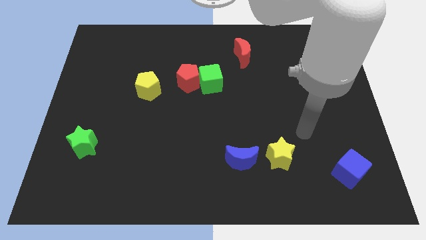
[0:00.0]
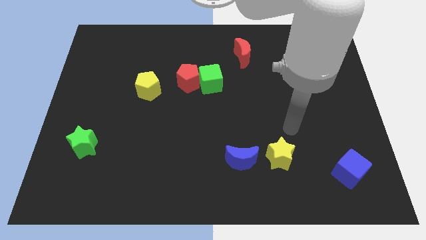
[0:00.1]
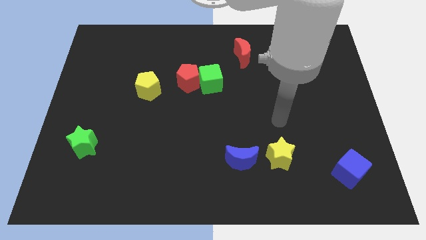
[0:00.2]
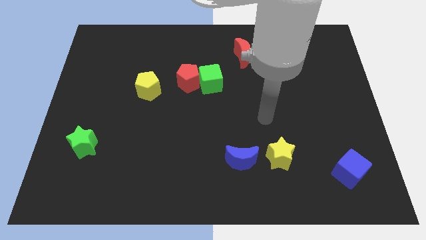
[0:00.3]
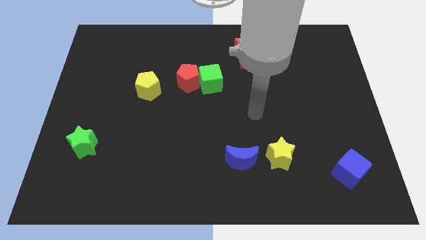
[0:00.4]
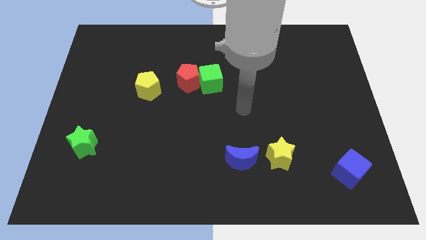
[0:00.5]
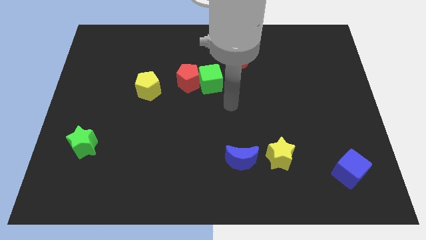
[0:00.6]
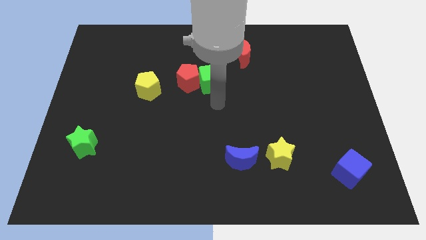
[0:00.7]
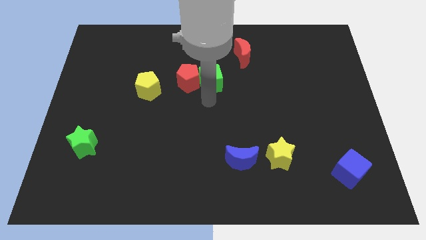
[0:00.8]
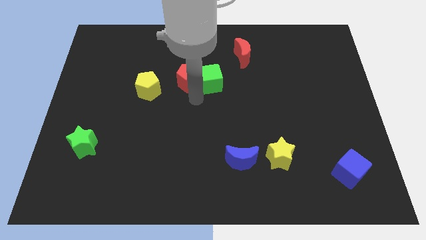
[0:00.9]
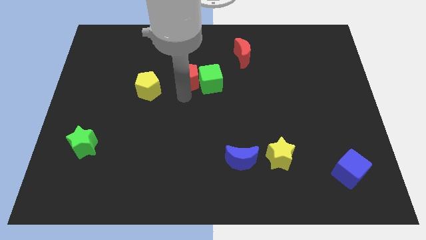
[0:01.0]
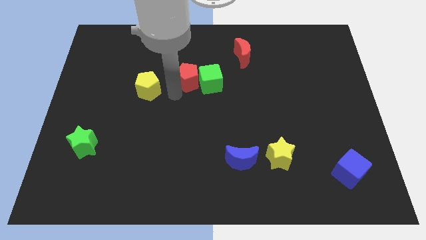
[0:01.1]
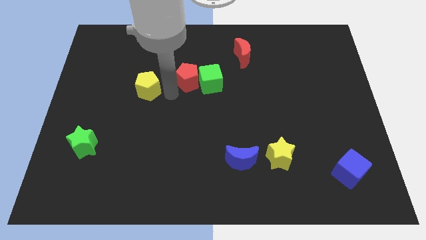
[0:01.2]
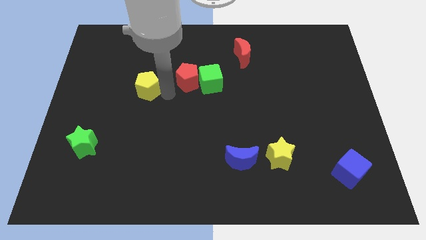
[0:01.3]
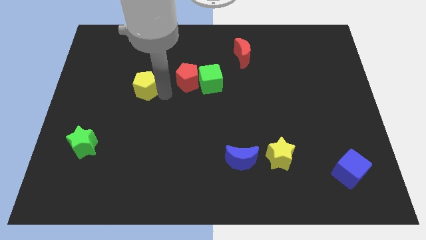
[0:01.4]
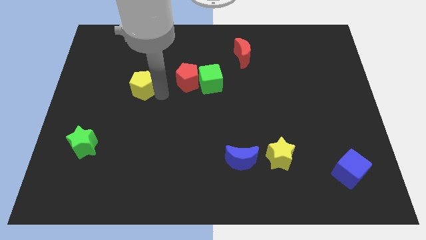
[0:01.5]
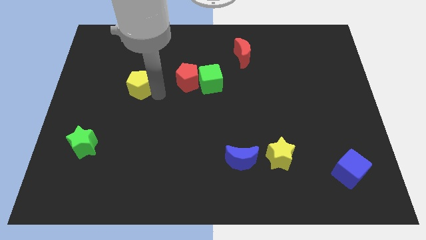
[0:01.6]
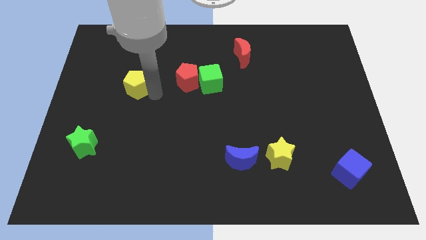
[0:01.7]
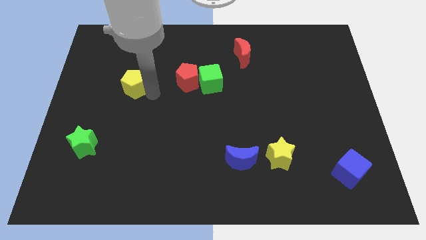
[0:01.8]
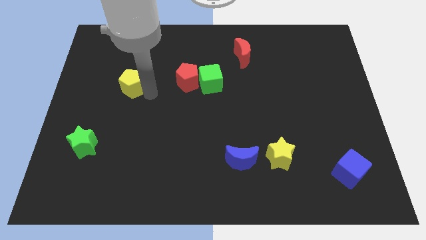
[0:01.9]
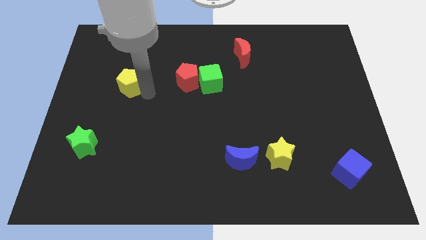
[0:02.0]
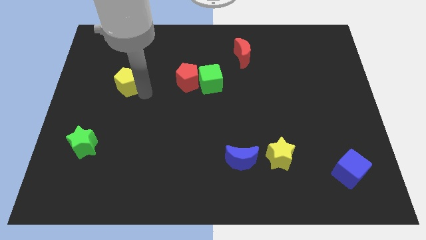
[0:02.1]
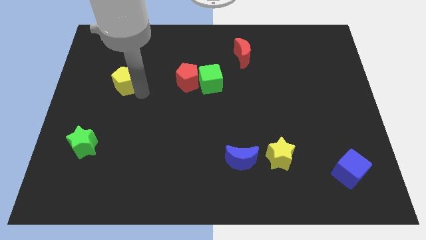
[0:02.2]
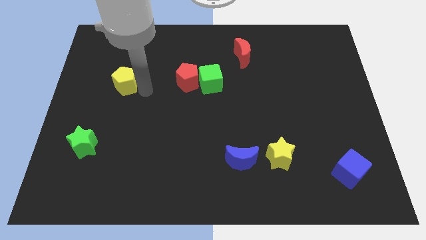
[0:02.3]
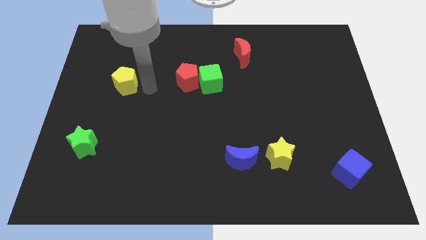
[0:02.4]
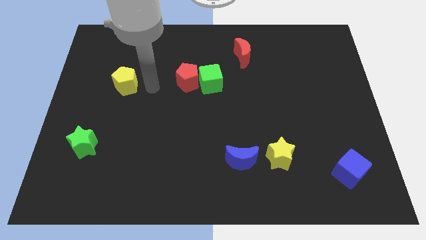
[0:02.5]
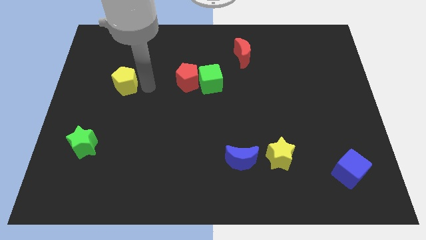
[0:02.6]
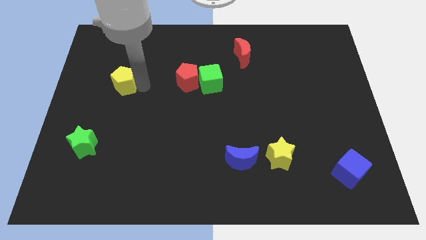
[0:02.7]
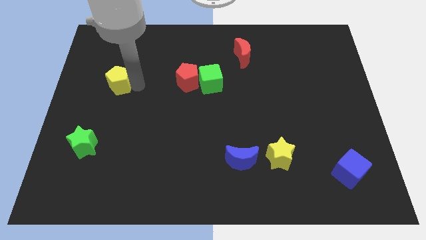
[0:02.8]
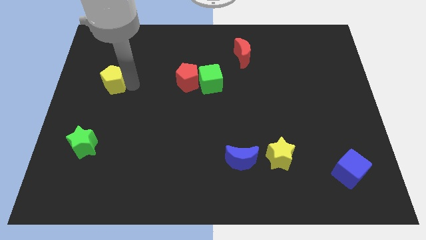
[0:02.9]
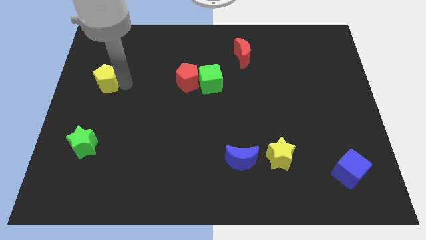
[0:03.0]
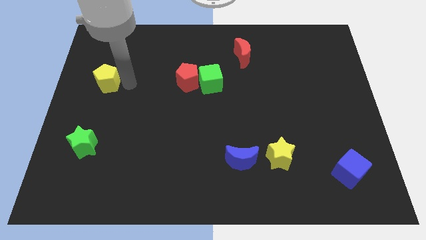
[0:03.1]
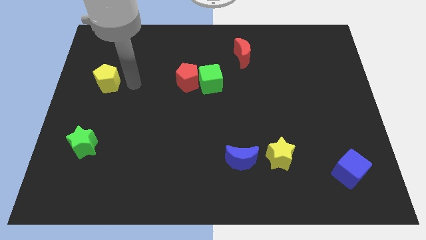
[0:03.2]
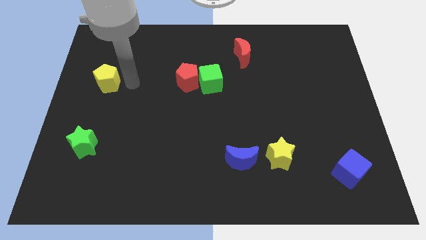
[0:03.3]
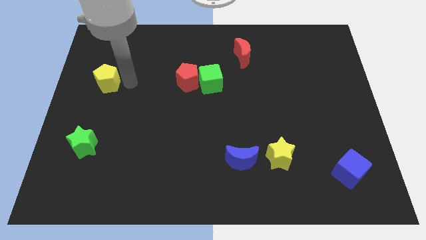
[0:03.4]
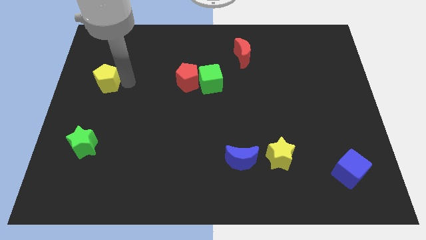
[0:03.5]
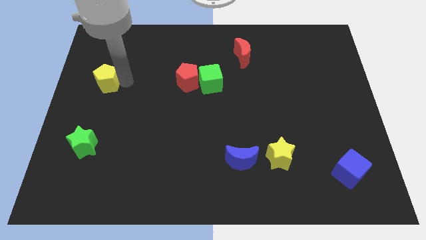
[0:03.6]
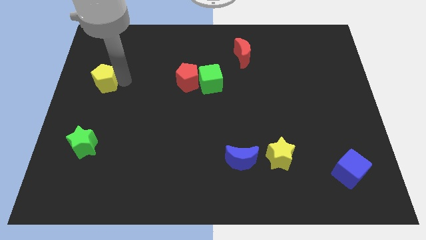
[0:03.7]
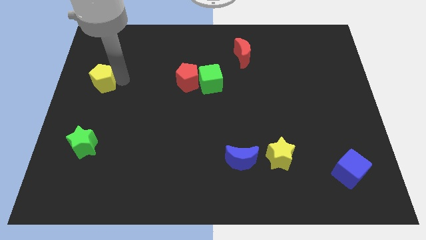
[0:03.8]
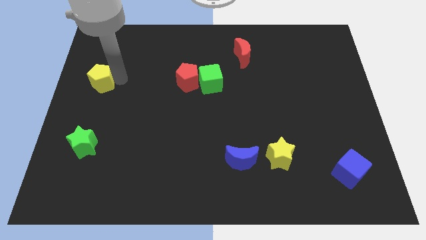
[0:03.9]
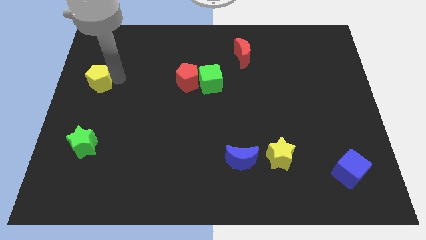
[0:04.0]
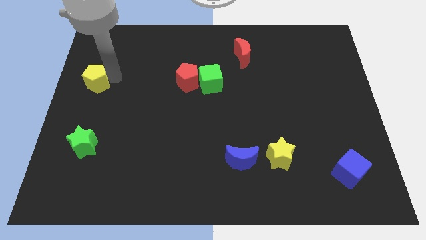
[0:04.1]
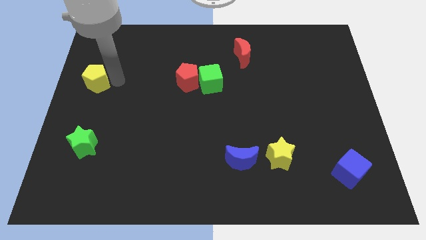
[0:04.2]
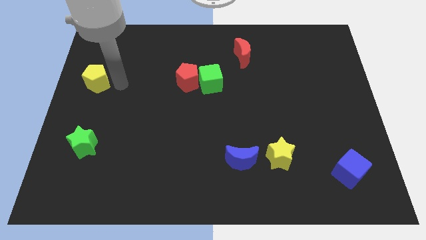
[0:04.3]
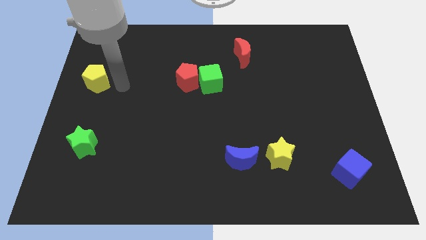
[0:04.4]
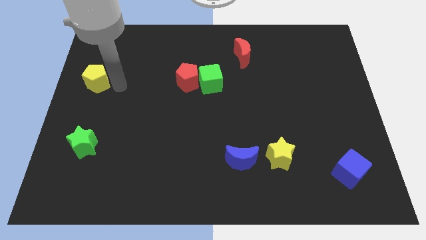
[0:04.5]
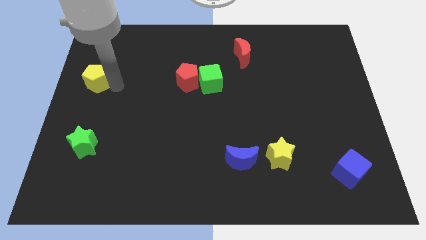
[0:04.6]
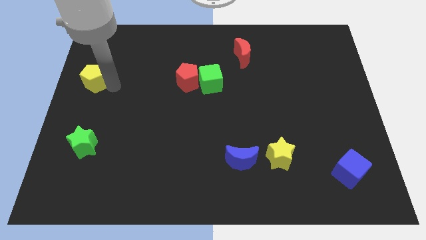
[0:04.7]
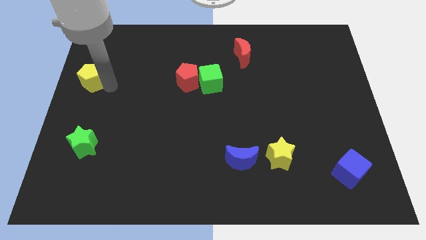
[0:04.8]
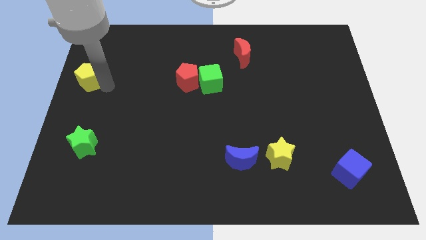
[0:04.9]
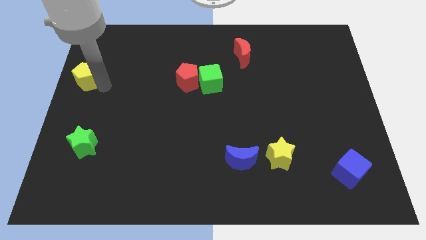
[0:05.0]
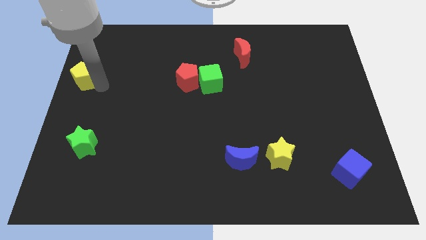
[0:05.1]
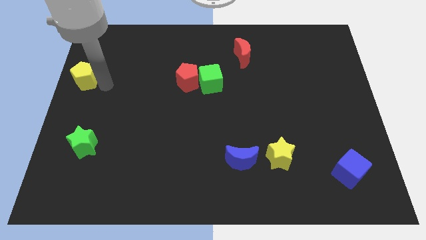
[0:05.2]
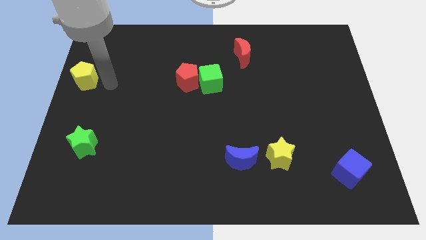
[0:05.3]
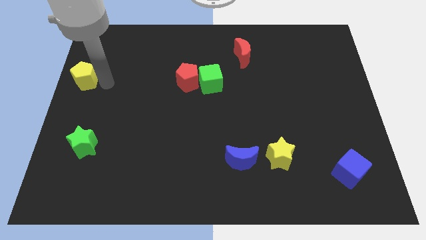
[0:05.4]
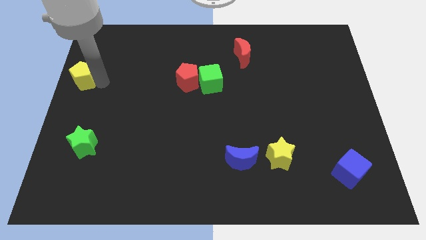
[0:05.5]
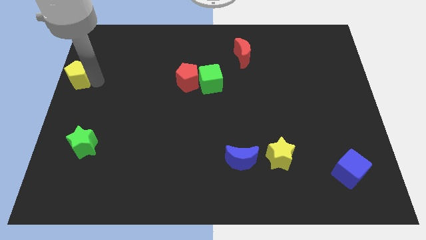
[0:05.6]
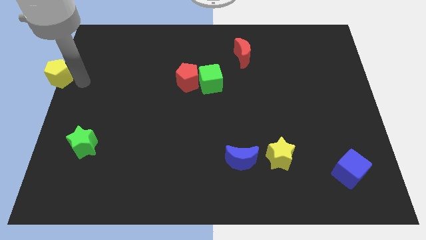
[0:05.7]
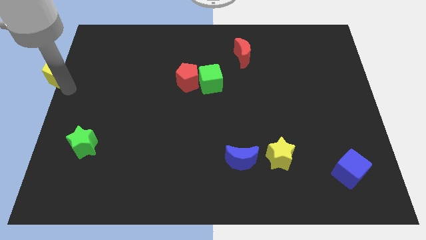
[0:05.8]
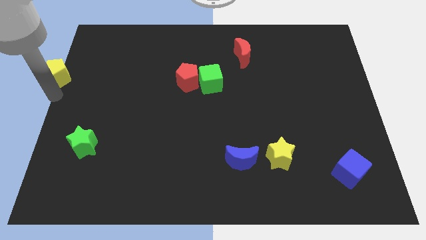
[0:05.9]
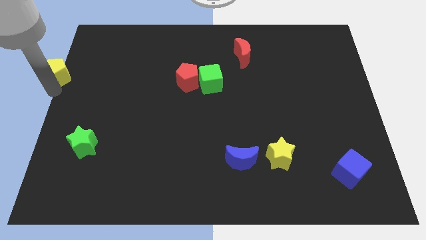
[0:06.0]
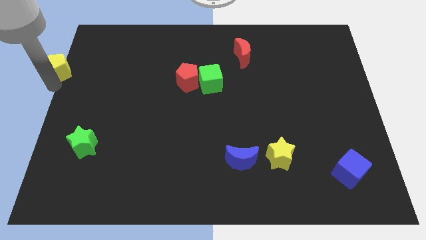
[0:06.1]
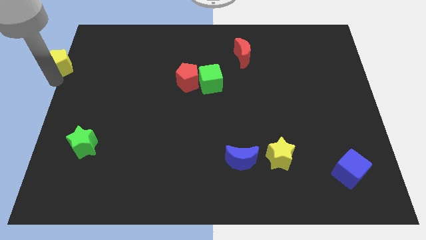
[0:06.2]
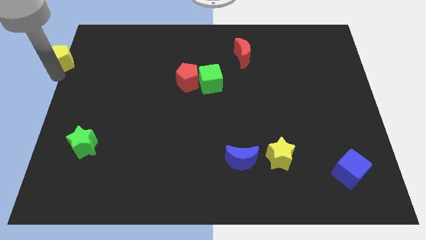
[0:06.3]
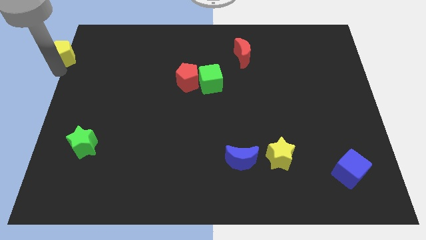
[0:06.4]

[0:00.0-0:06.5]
move the yellow pentagon to the top left of the board
